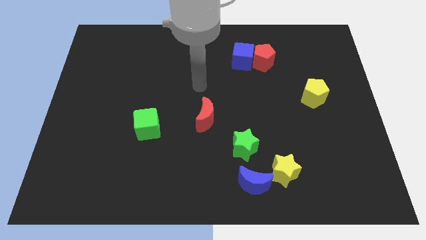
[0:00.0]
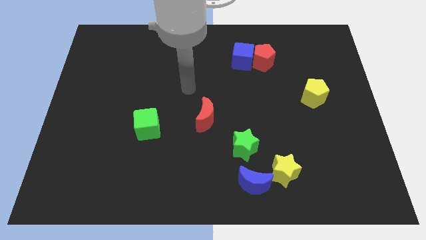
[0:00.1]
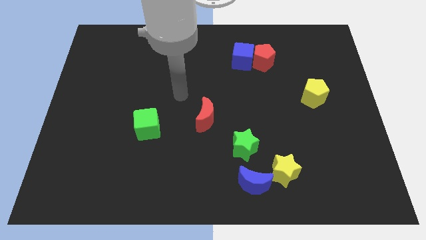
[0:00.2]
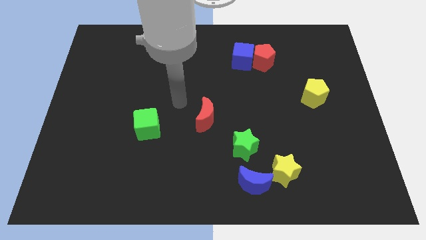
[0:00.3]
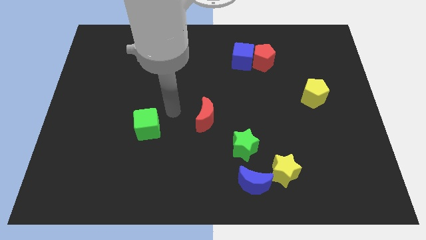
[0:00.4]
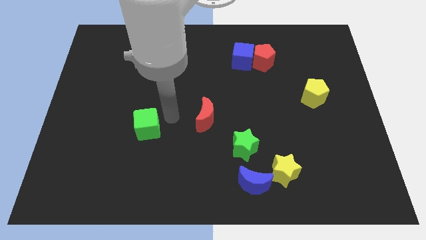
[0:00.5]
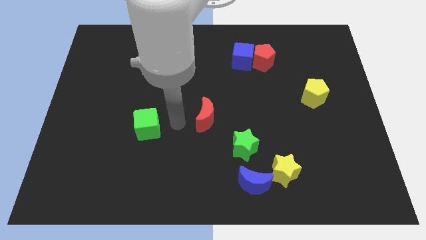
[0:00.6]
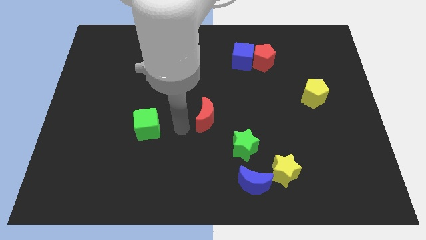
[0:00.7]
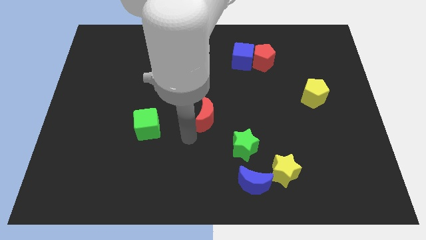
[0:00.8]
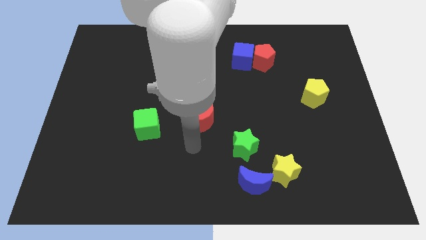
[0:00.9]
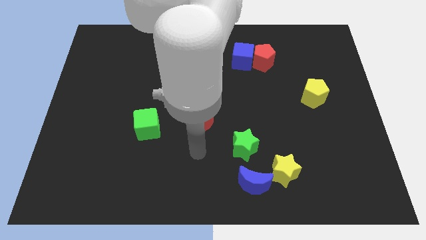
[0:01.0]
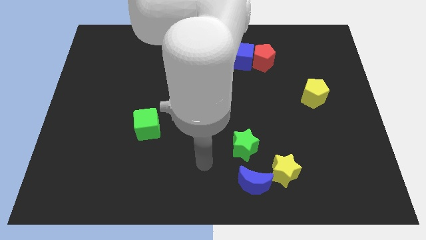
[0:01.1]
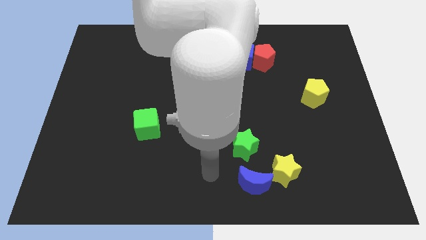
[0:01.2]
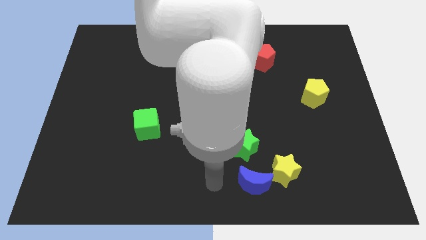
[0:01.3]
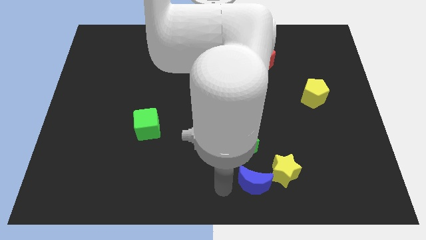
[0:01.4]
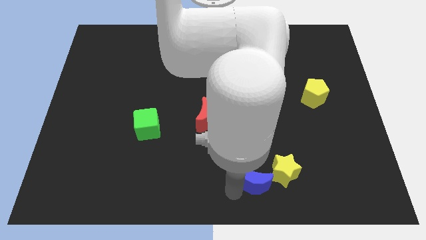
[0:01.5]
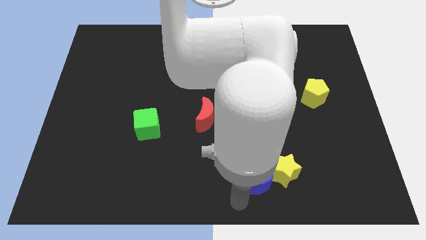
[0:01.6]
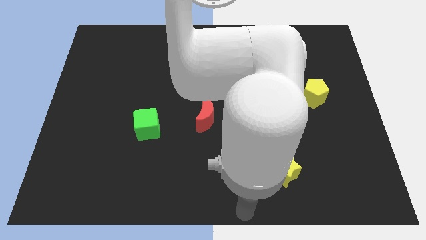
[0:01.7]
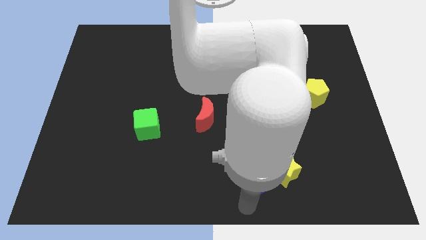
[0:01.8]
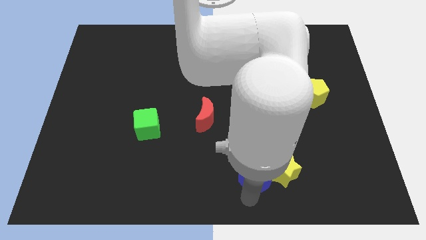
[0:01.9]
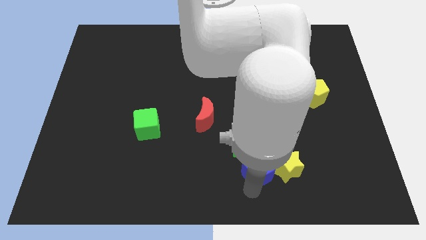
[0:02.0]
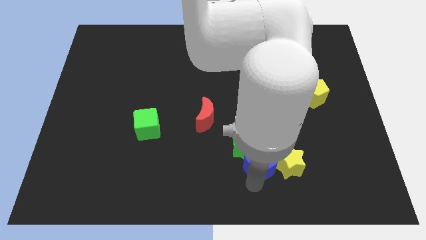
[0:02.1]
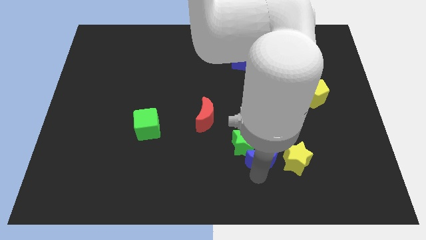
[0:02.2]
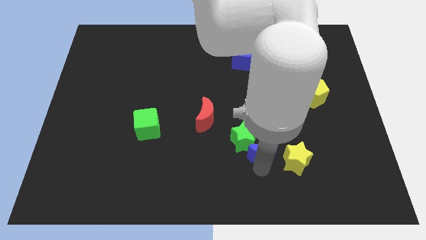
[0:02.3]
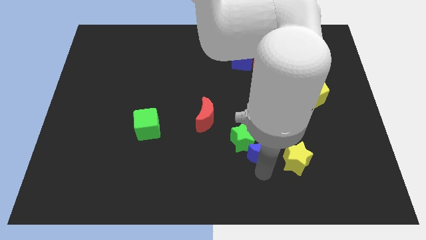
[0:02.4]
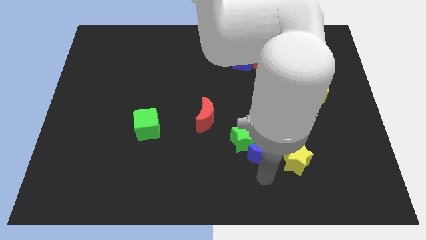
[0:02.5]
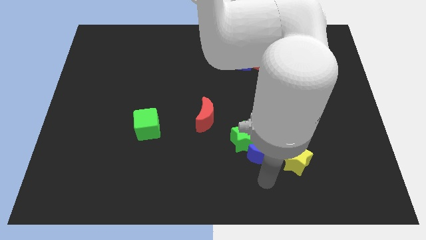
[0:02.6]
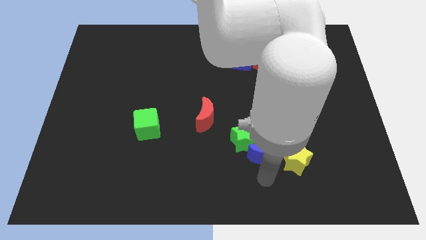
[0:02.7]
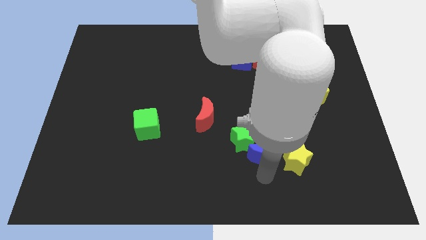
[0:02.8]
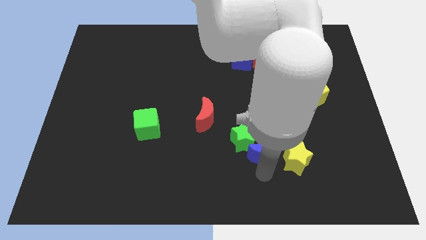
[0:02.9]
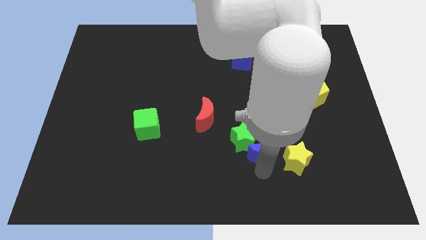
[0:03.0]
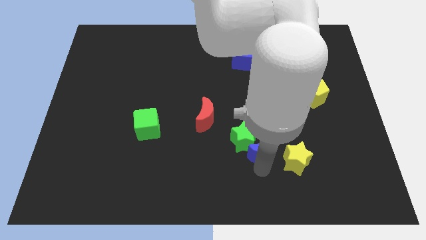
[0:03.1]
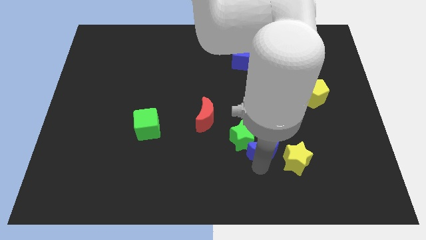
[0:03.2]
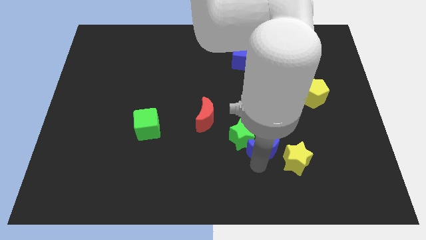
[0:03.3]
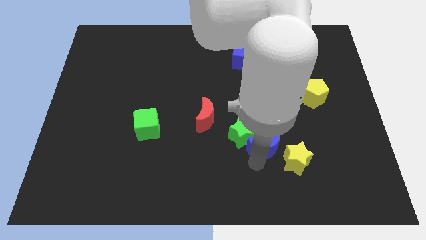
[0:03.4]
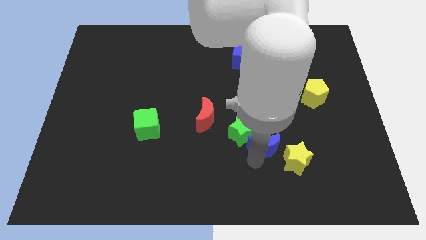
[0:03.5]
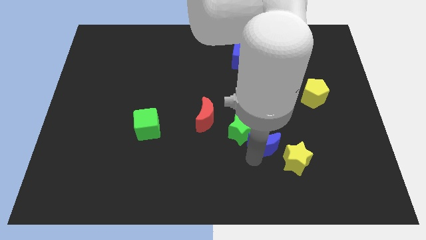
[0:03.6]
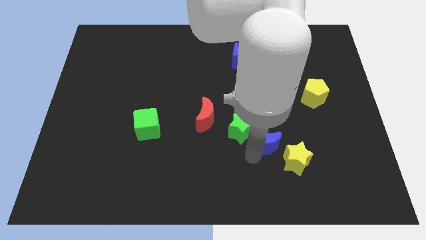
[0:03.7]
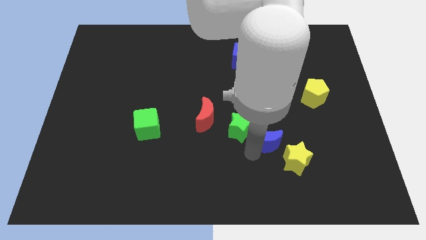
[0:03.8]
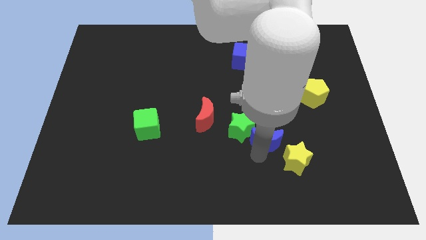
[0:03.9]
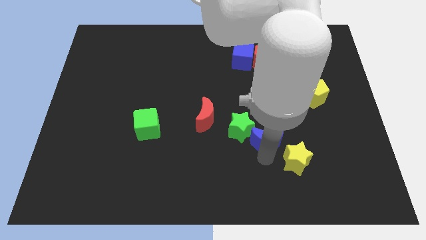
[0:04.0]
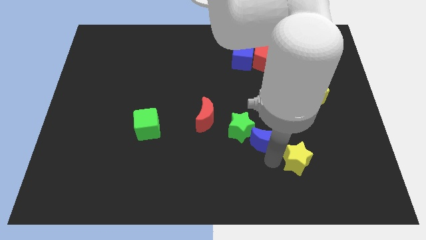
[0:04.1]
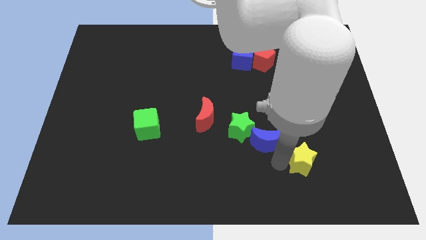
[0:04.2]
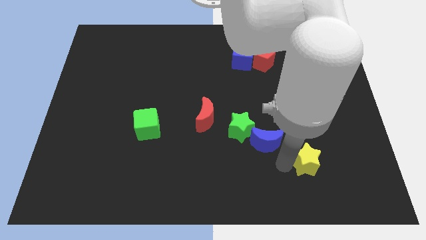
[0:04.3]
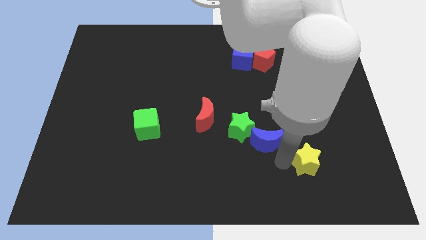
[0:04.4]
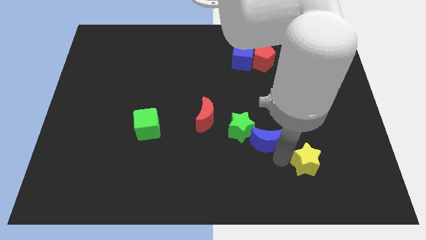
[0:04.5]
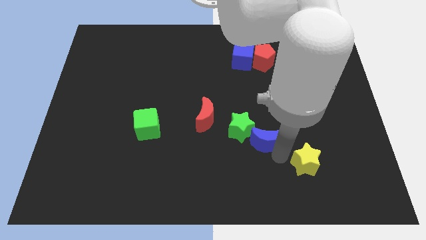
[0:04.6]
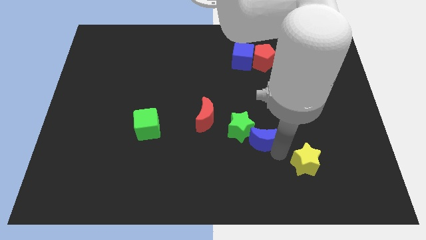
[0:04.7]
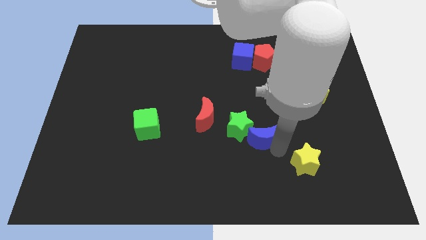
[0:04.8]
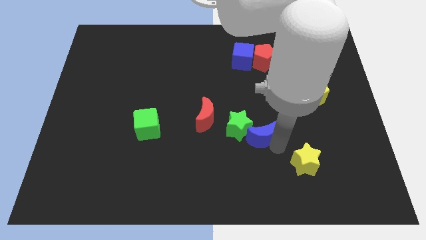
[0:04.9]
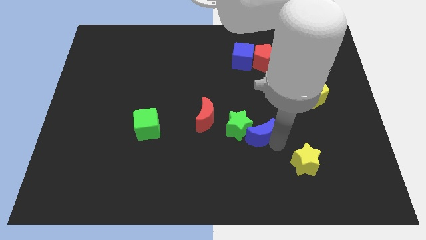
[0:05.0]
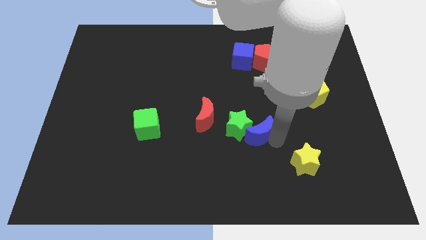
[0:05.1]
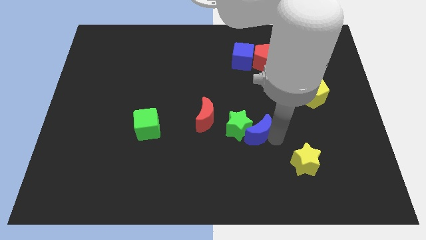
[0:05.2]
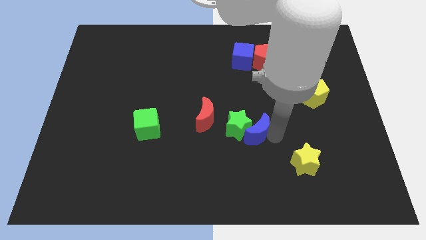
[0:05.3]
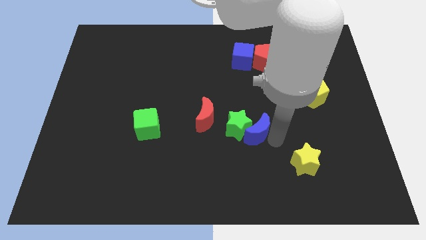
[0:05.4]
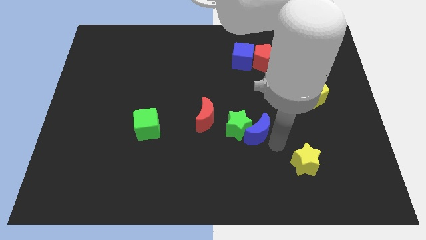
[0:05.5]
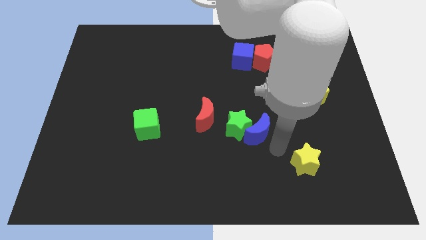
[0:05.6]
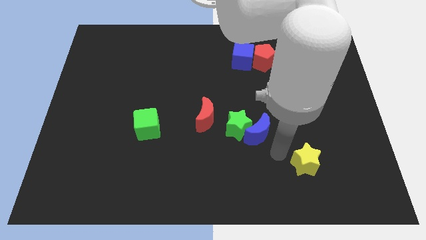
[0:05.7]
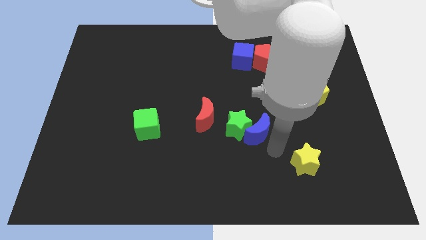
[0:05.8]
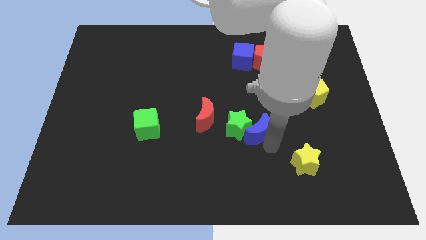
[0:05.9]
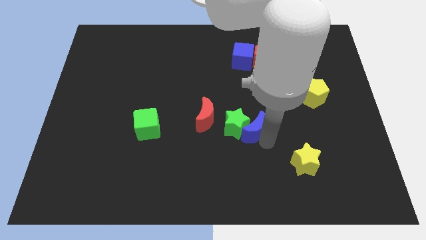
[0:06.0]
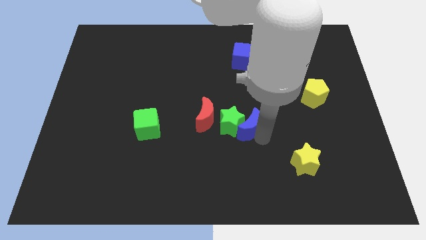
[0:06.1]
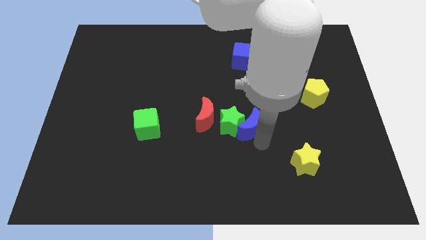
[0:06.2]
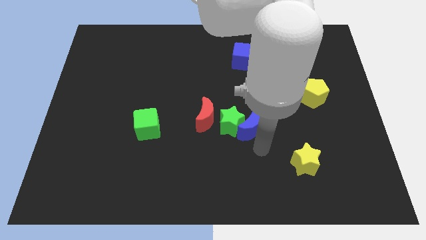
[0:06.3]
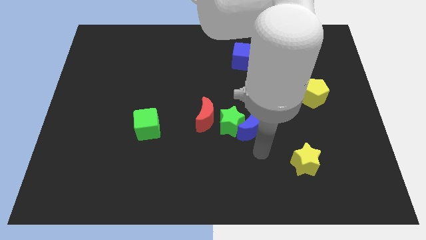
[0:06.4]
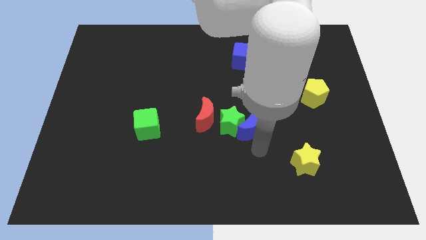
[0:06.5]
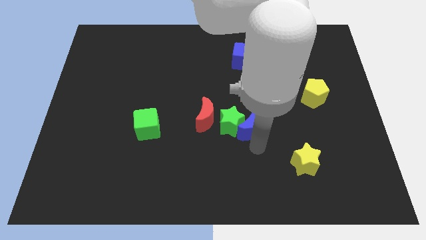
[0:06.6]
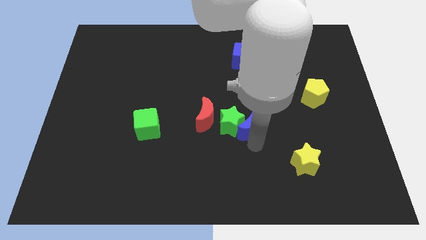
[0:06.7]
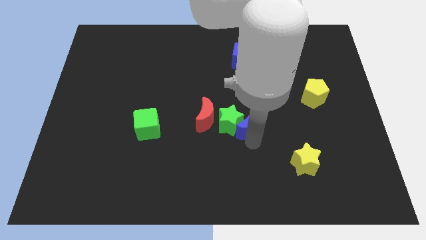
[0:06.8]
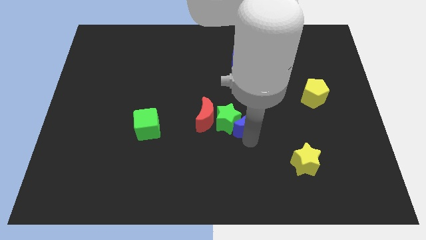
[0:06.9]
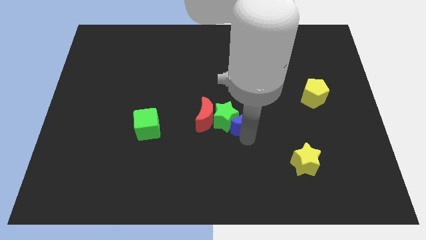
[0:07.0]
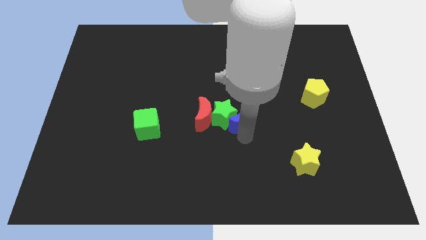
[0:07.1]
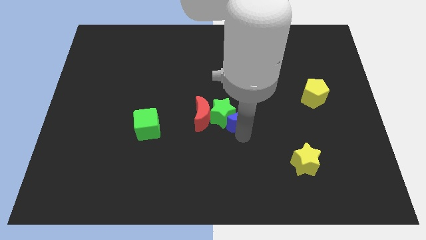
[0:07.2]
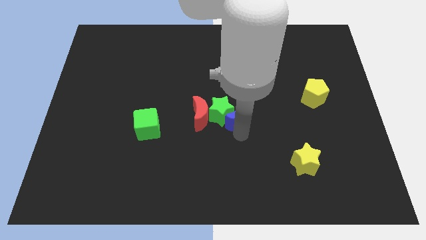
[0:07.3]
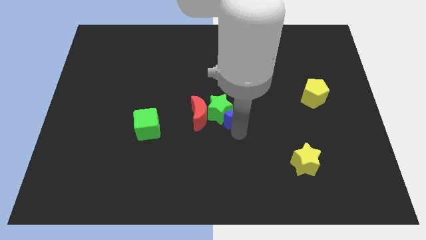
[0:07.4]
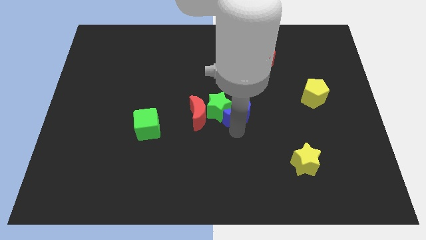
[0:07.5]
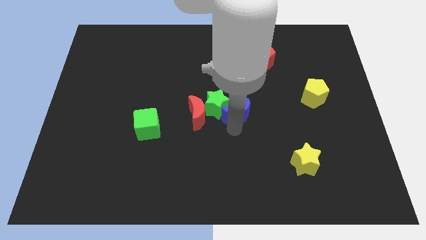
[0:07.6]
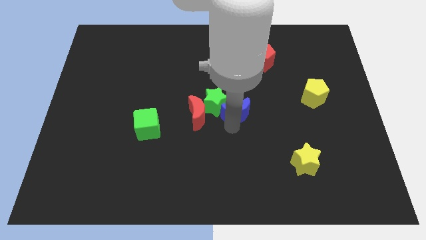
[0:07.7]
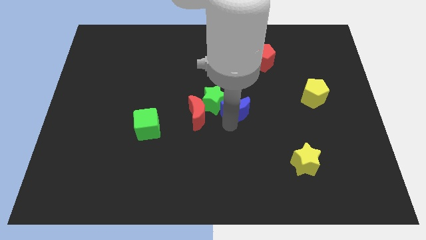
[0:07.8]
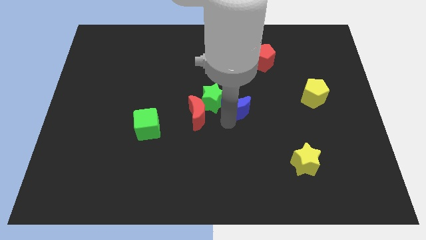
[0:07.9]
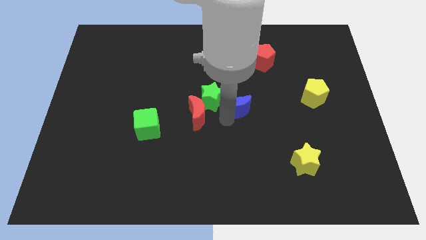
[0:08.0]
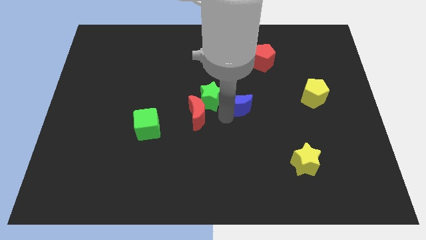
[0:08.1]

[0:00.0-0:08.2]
slide the blue moon to the bottom of the blue cube
